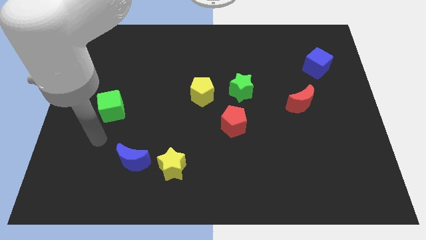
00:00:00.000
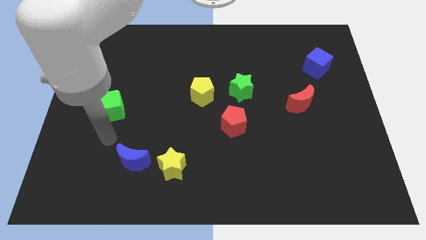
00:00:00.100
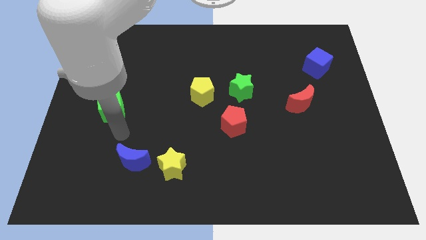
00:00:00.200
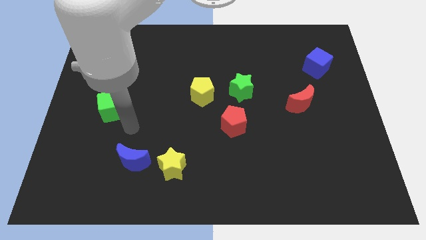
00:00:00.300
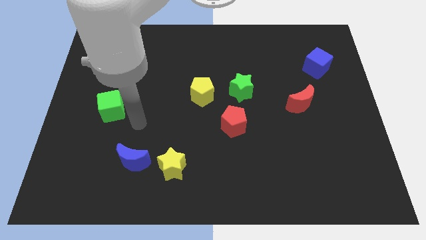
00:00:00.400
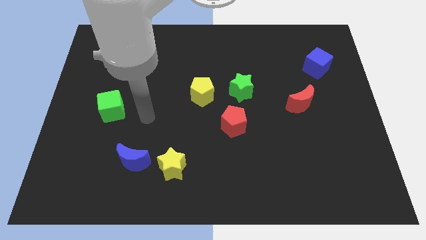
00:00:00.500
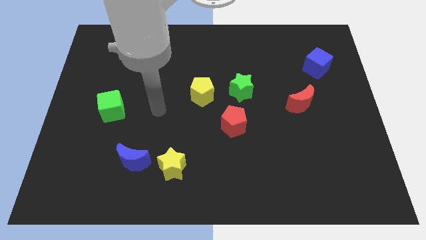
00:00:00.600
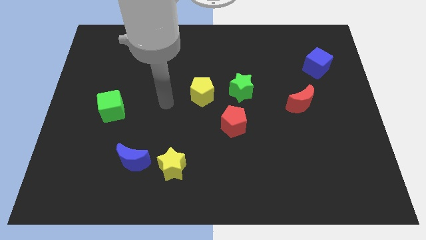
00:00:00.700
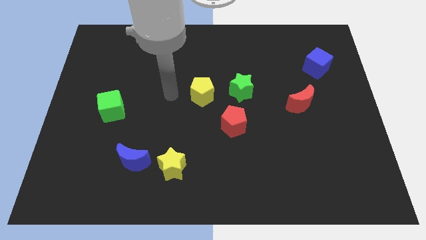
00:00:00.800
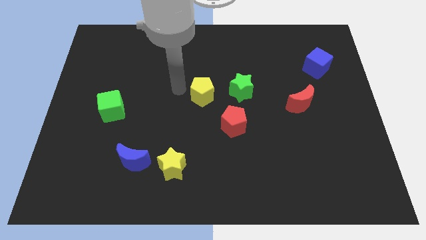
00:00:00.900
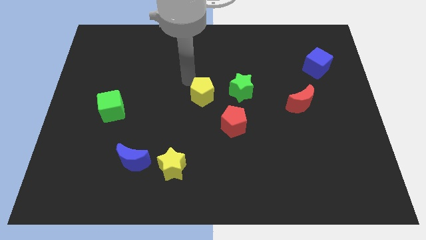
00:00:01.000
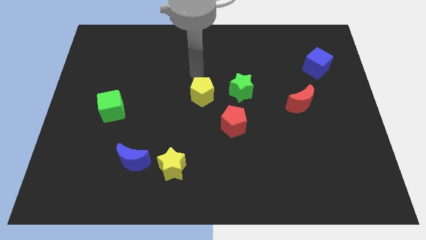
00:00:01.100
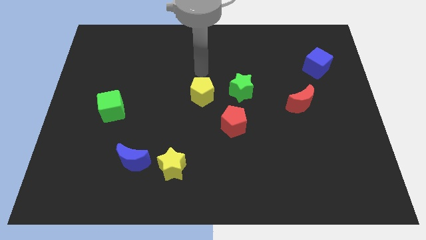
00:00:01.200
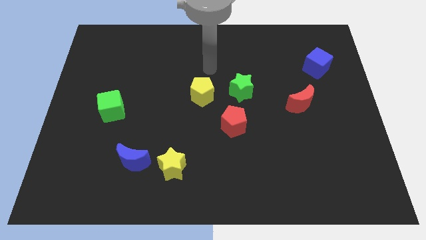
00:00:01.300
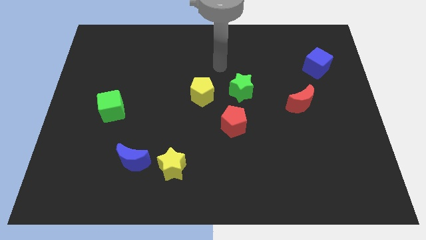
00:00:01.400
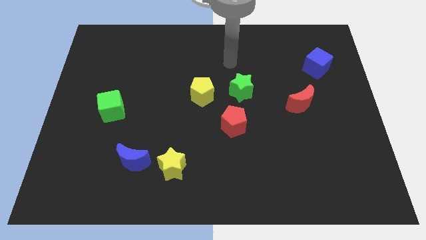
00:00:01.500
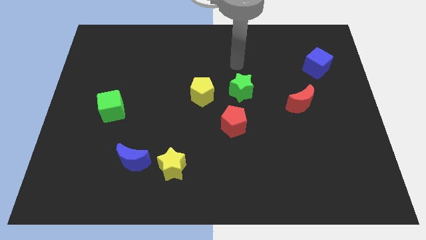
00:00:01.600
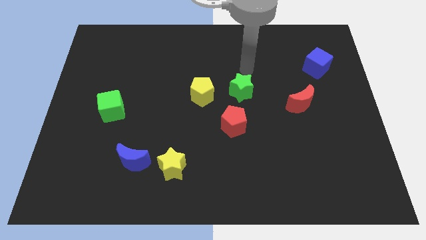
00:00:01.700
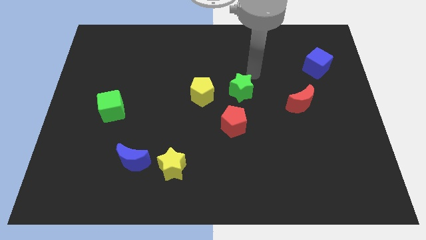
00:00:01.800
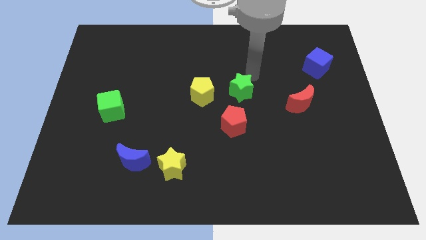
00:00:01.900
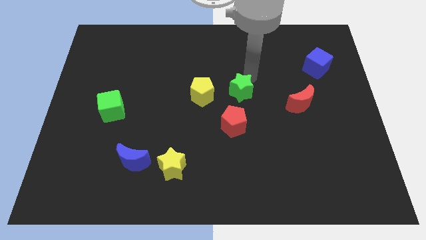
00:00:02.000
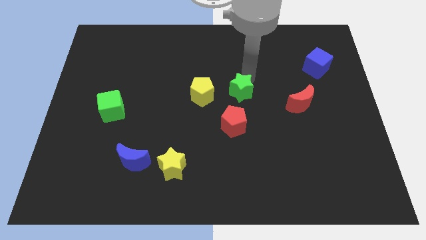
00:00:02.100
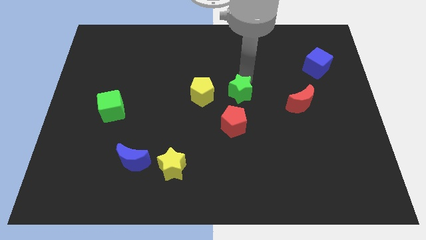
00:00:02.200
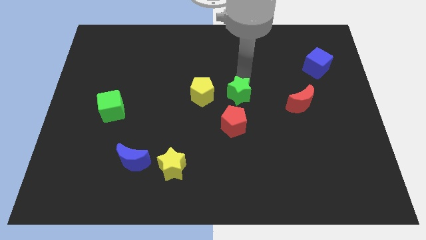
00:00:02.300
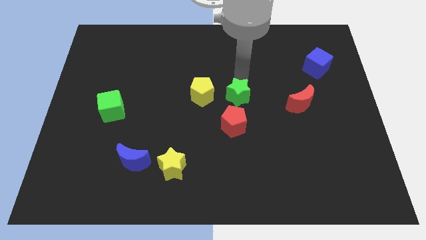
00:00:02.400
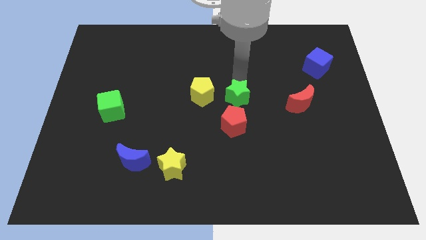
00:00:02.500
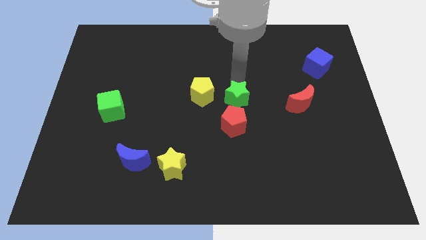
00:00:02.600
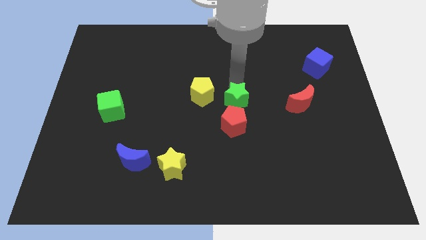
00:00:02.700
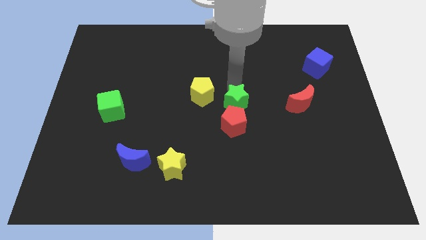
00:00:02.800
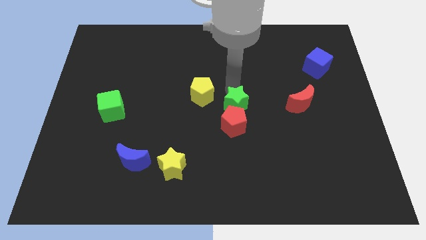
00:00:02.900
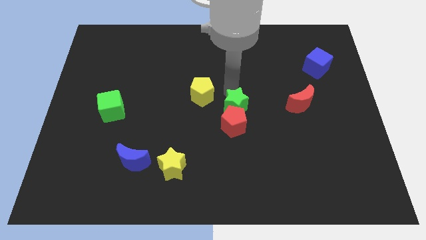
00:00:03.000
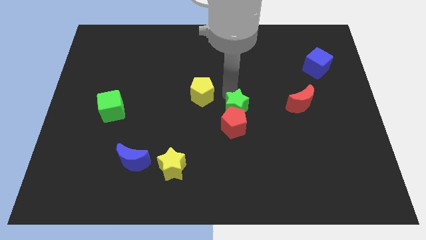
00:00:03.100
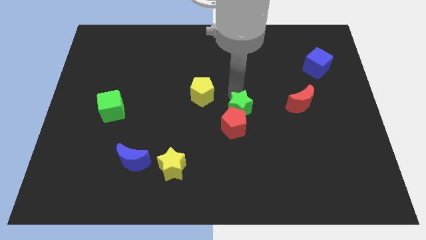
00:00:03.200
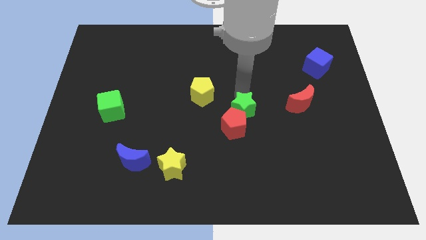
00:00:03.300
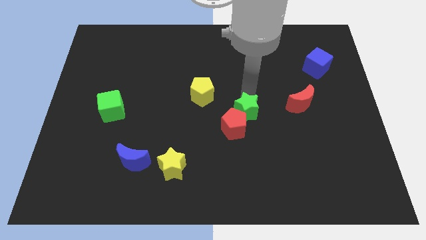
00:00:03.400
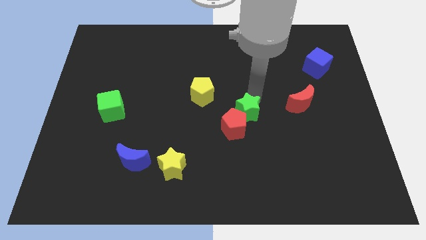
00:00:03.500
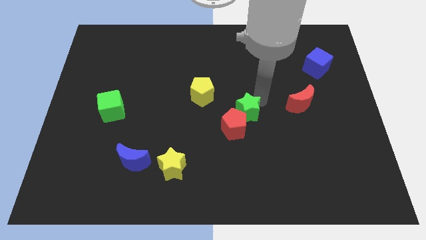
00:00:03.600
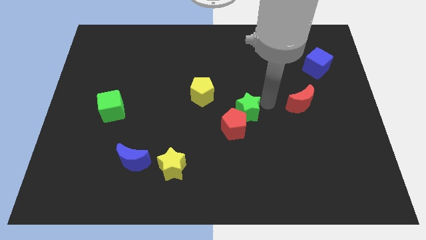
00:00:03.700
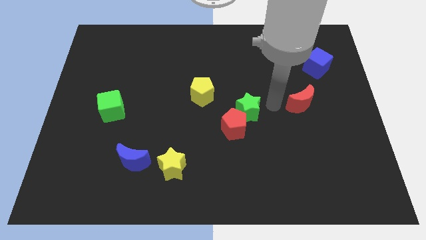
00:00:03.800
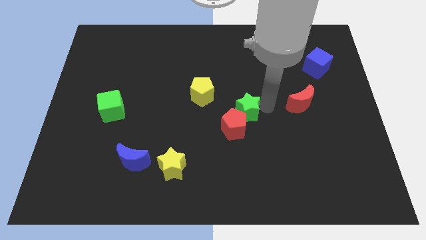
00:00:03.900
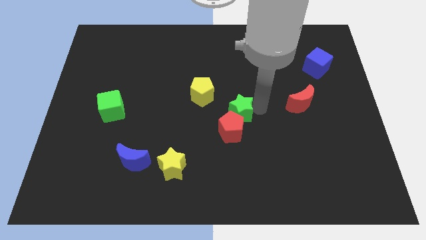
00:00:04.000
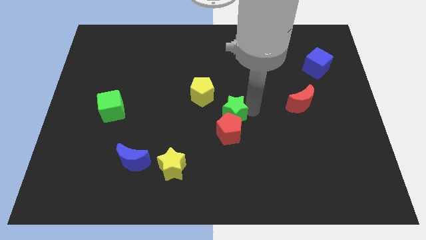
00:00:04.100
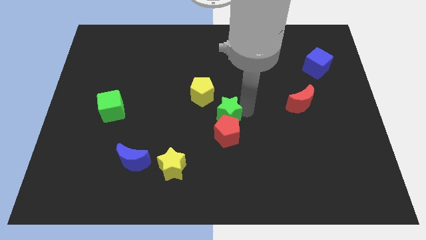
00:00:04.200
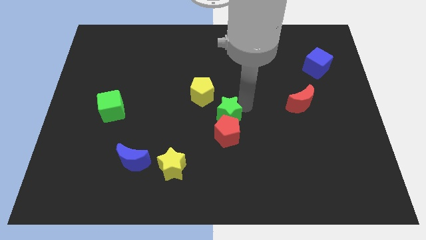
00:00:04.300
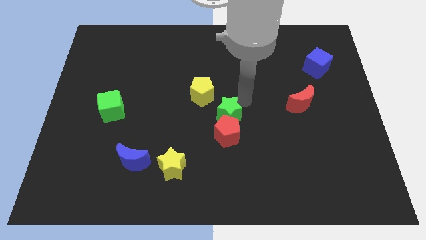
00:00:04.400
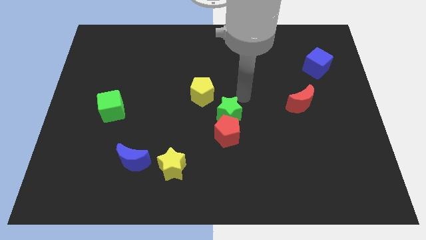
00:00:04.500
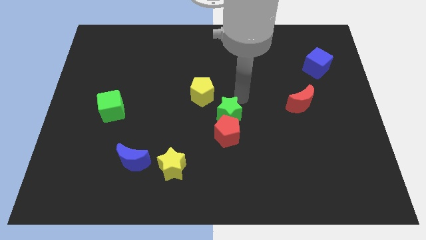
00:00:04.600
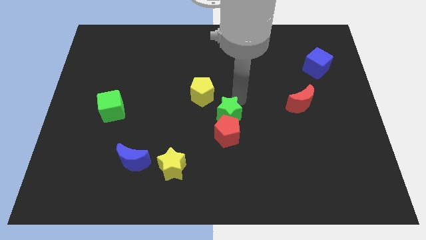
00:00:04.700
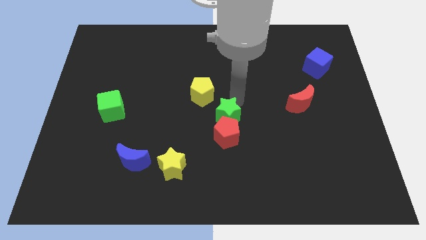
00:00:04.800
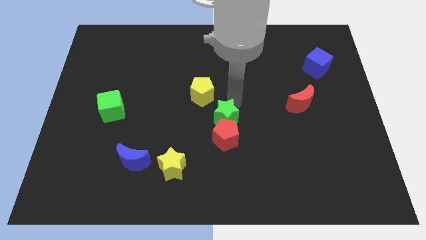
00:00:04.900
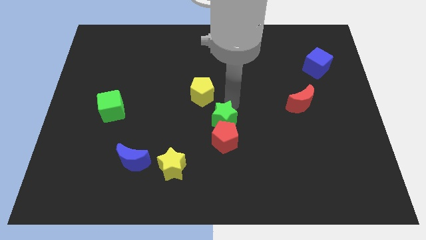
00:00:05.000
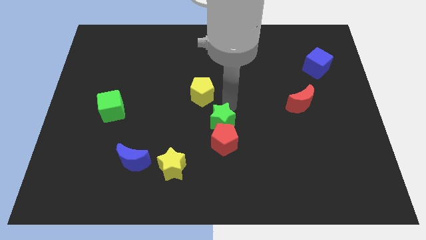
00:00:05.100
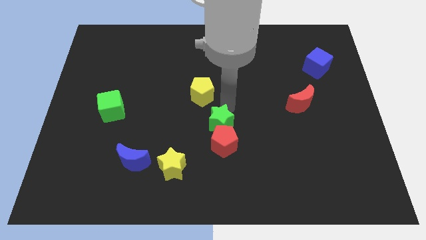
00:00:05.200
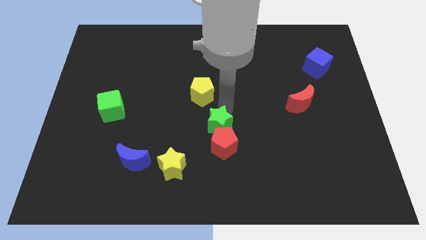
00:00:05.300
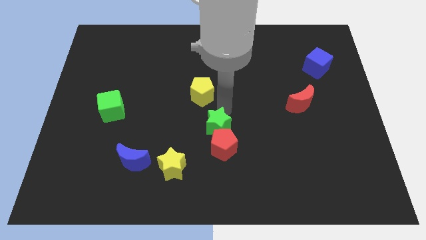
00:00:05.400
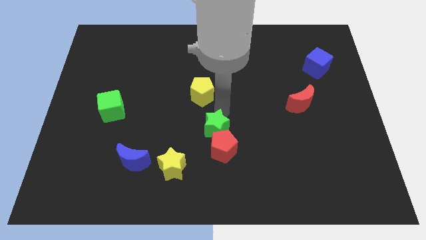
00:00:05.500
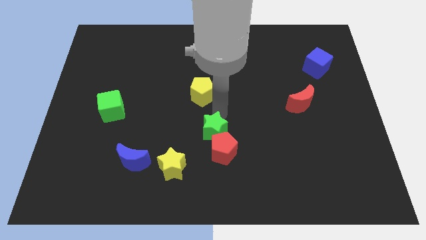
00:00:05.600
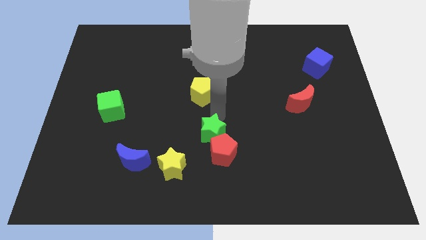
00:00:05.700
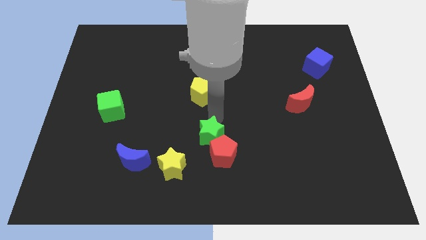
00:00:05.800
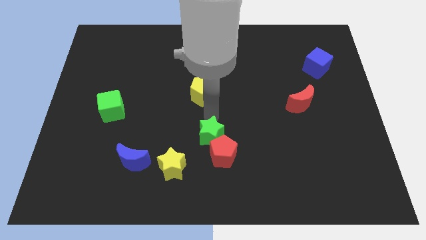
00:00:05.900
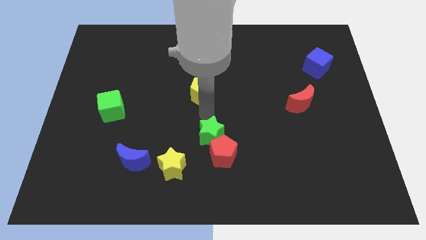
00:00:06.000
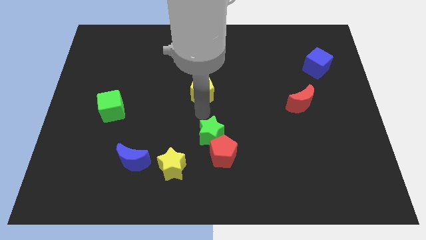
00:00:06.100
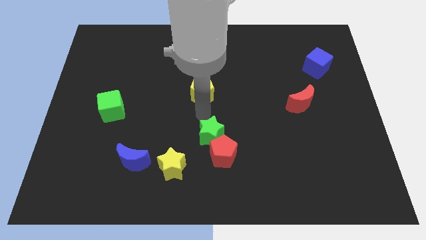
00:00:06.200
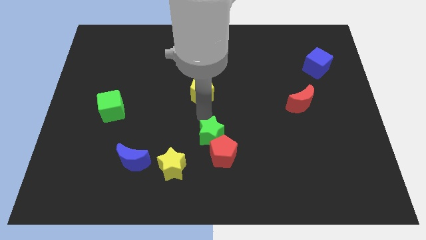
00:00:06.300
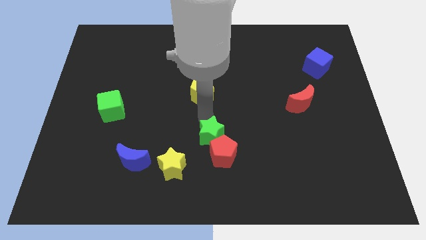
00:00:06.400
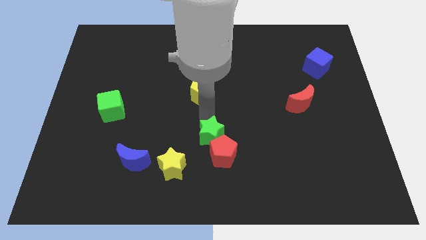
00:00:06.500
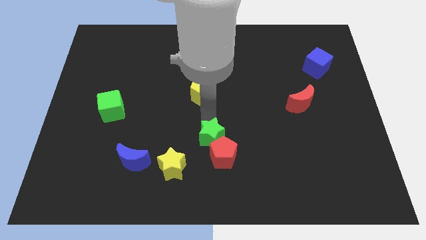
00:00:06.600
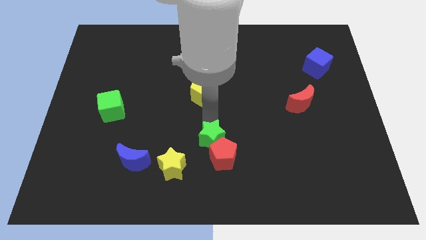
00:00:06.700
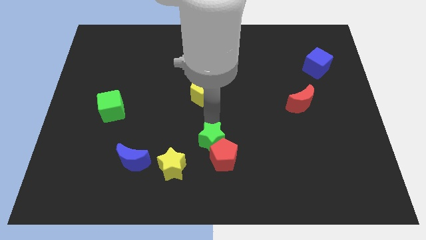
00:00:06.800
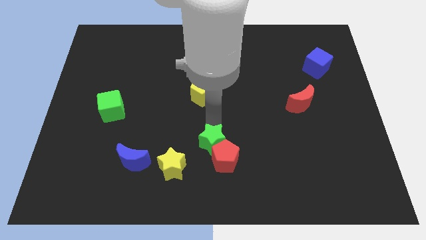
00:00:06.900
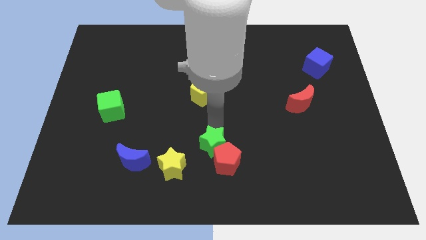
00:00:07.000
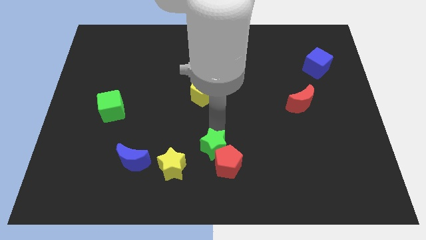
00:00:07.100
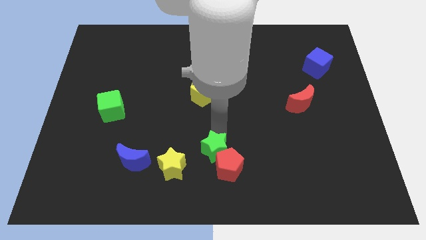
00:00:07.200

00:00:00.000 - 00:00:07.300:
put the green star right of the yellow star
